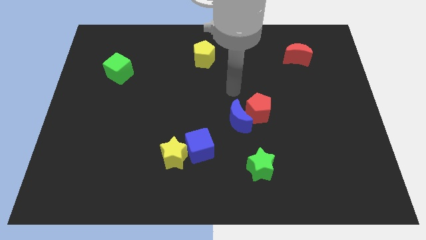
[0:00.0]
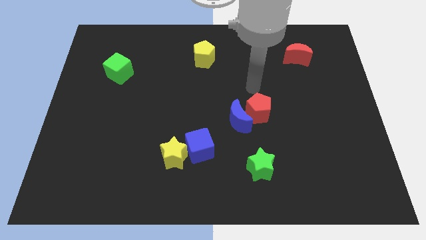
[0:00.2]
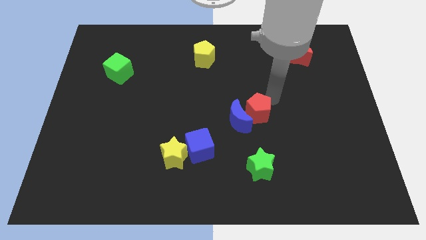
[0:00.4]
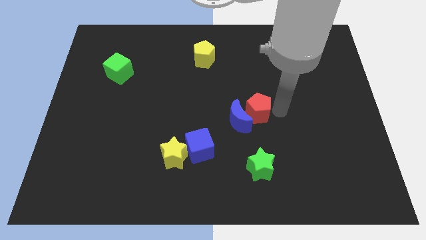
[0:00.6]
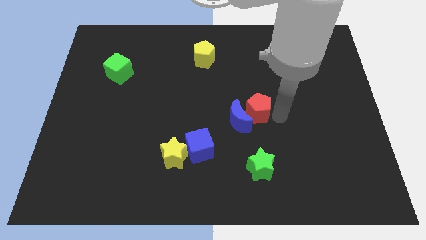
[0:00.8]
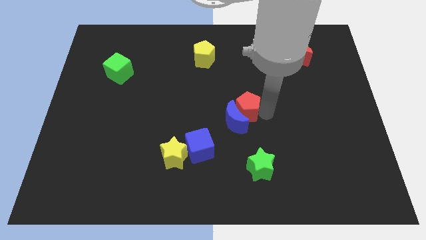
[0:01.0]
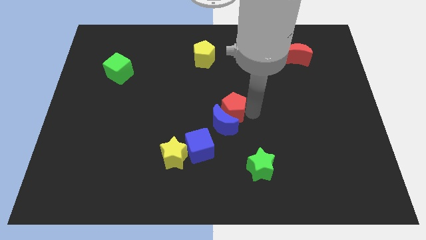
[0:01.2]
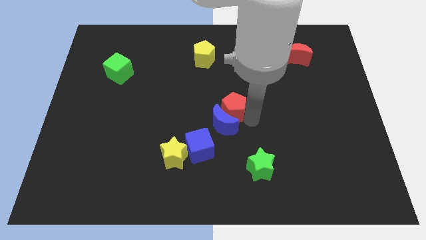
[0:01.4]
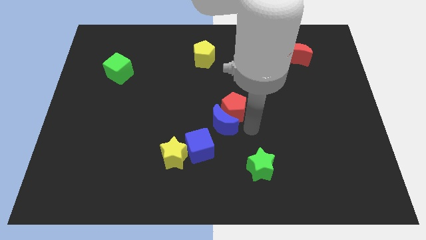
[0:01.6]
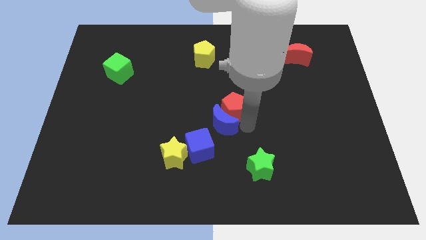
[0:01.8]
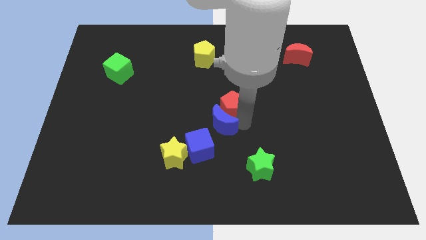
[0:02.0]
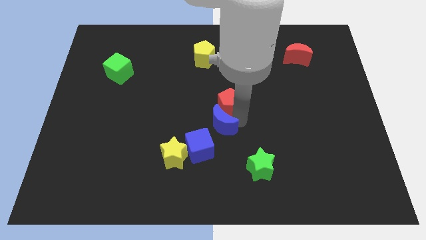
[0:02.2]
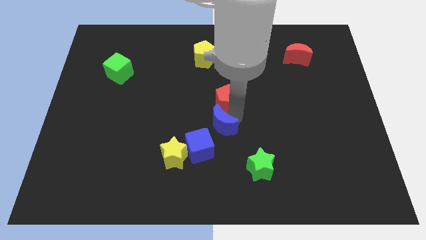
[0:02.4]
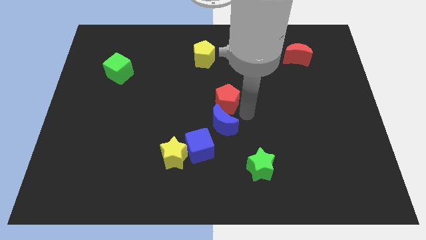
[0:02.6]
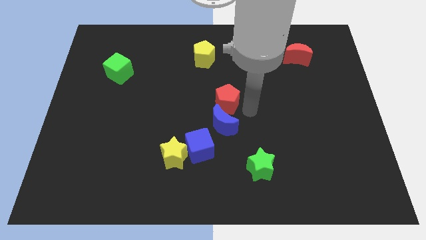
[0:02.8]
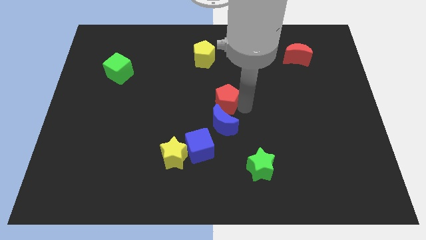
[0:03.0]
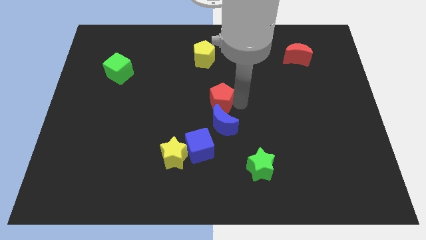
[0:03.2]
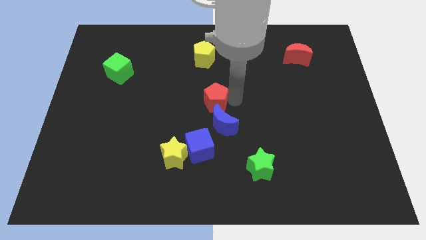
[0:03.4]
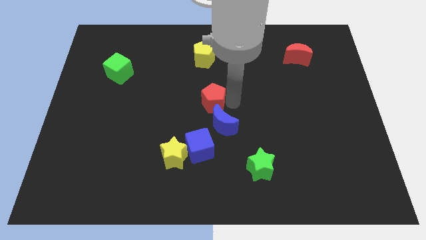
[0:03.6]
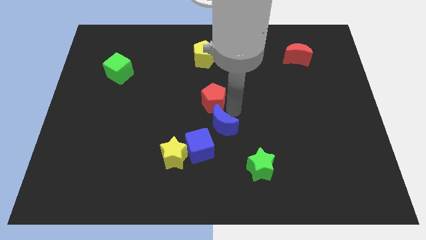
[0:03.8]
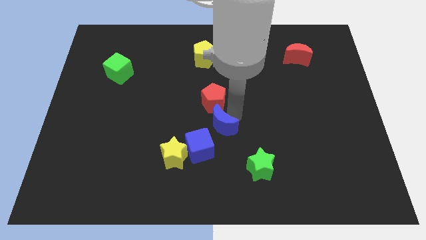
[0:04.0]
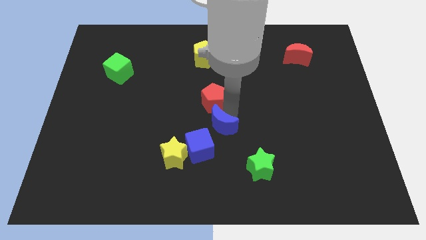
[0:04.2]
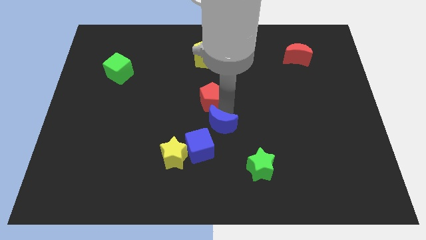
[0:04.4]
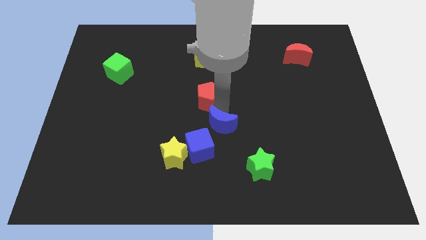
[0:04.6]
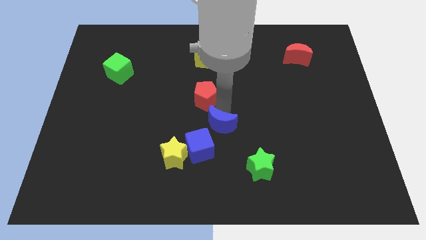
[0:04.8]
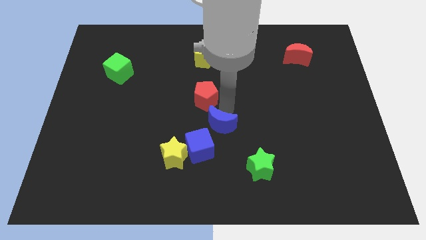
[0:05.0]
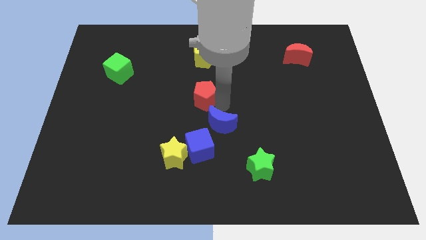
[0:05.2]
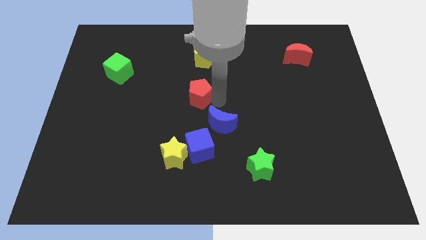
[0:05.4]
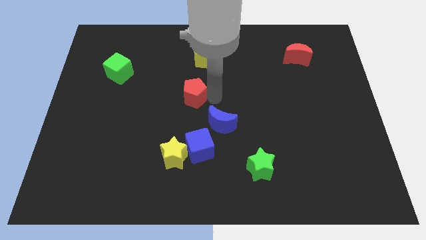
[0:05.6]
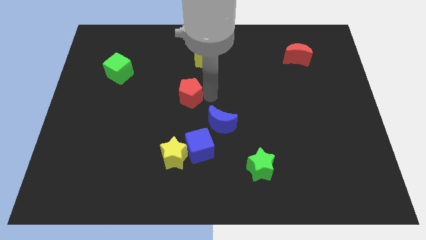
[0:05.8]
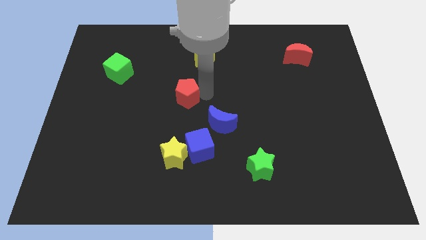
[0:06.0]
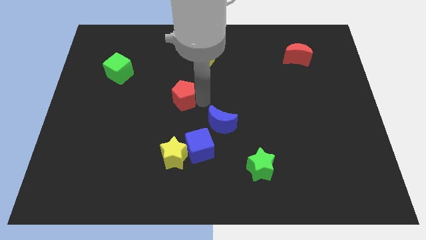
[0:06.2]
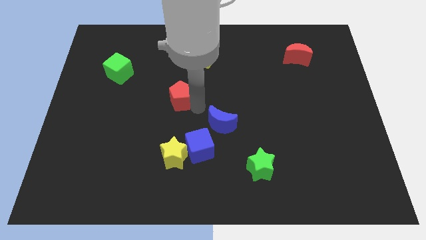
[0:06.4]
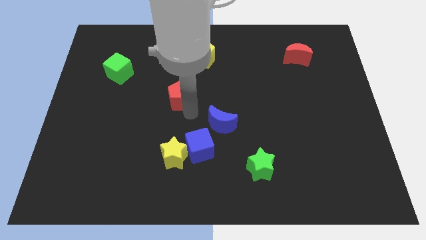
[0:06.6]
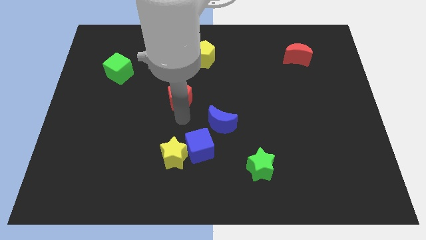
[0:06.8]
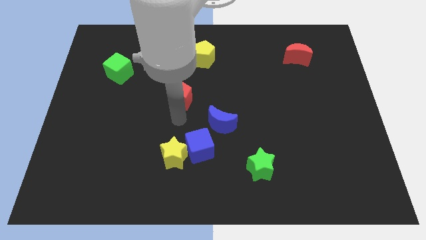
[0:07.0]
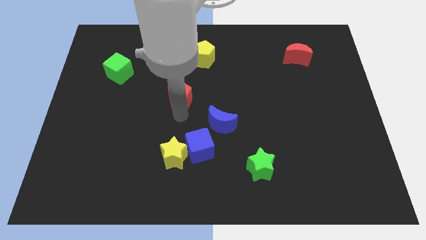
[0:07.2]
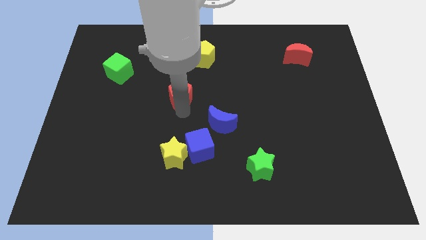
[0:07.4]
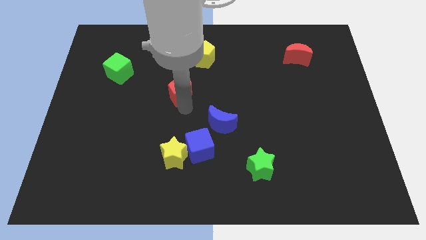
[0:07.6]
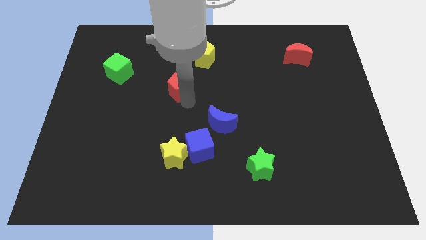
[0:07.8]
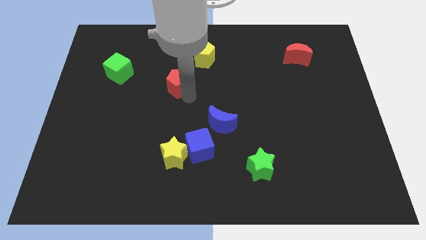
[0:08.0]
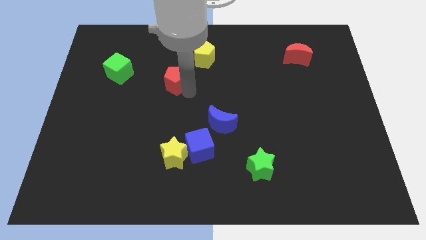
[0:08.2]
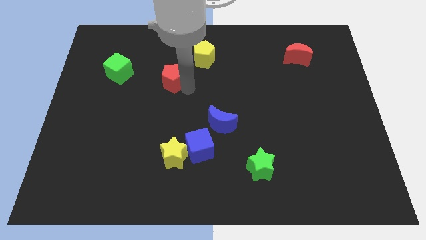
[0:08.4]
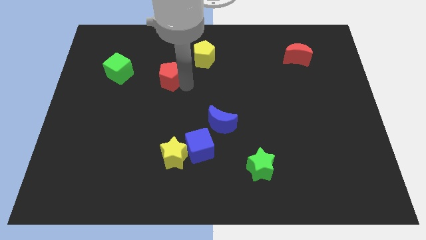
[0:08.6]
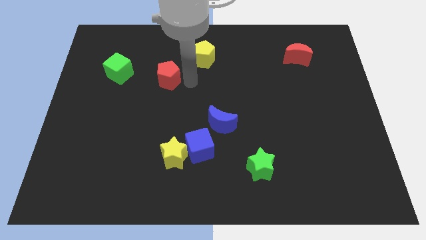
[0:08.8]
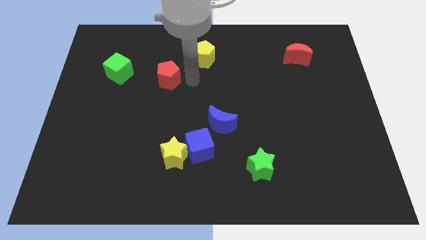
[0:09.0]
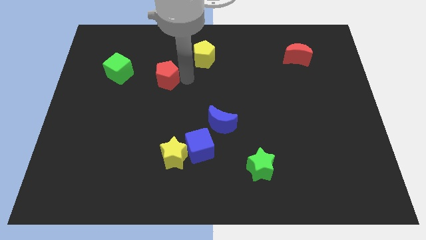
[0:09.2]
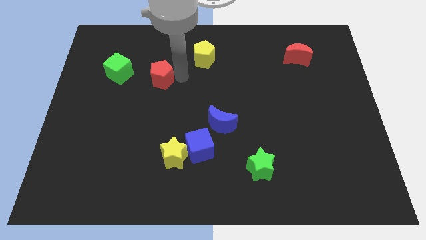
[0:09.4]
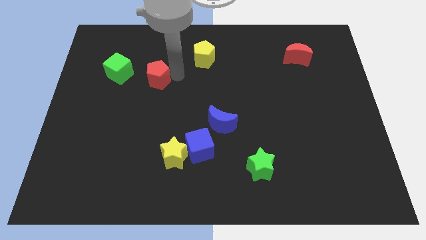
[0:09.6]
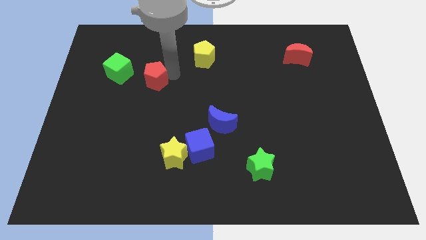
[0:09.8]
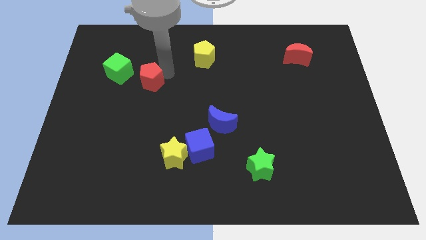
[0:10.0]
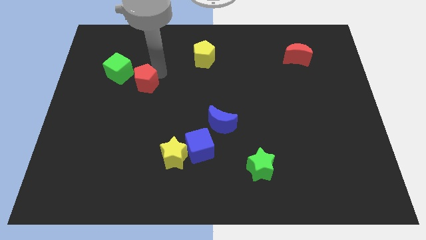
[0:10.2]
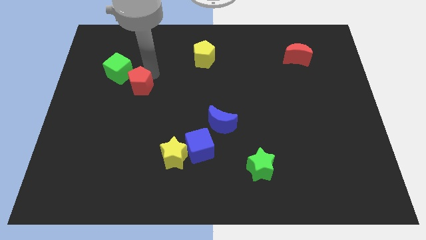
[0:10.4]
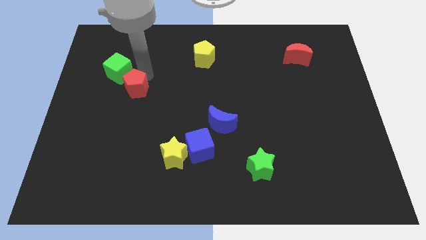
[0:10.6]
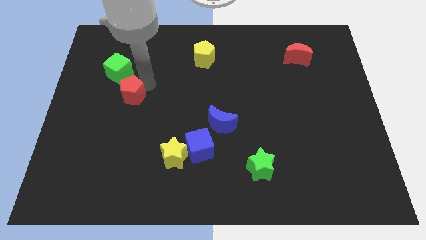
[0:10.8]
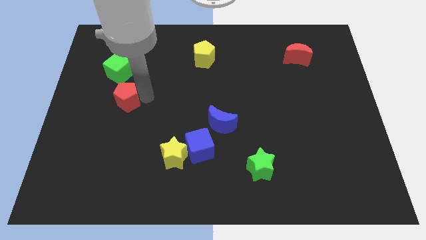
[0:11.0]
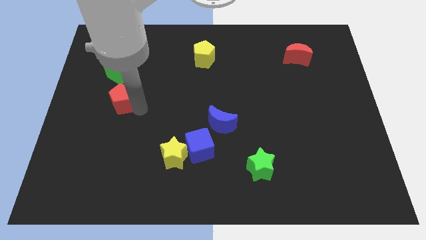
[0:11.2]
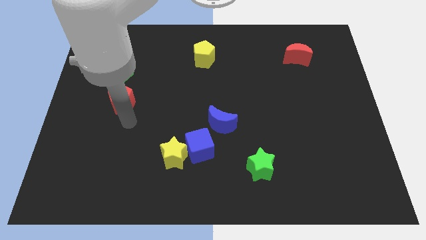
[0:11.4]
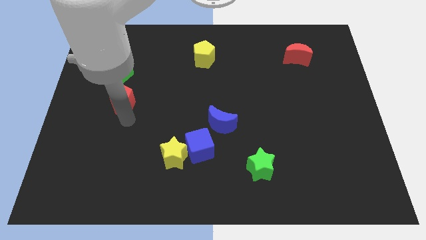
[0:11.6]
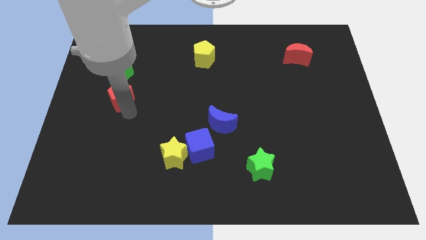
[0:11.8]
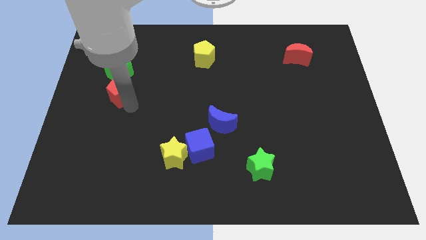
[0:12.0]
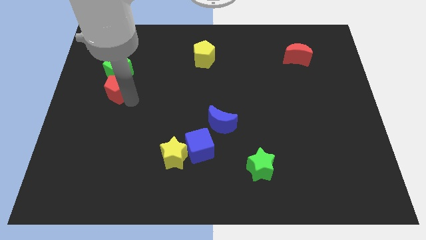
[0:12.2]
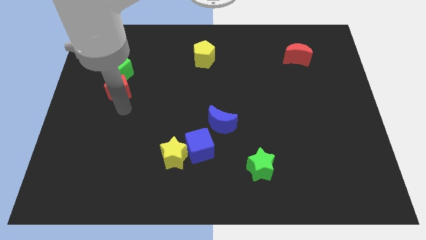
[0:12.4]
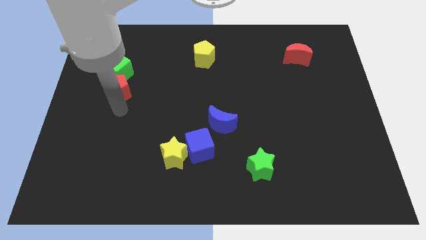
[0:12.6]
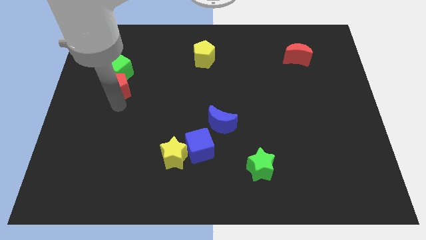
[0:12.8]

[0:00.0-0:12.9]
move the red pentagon close to the green cube
